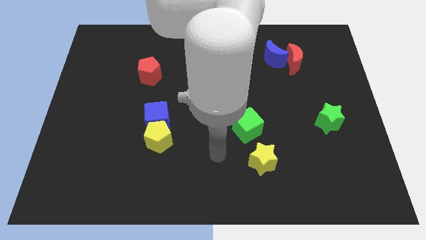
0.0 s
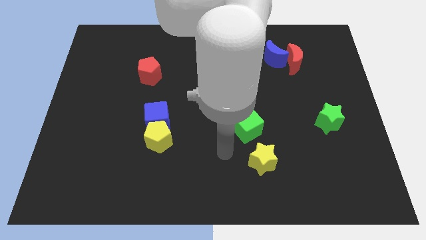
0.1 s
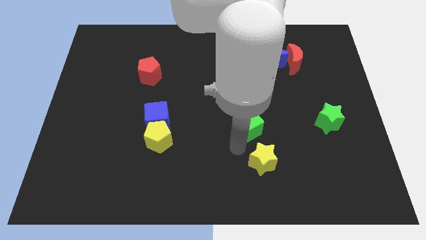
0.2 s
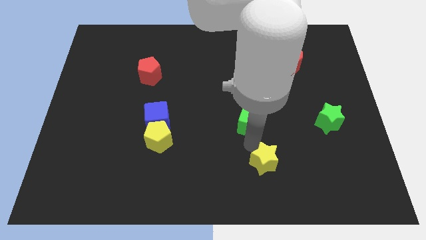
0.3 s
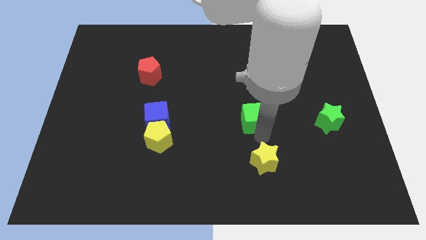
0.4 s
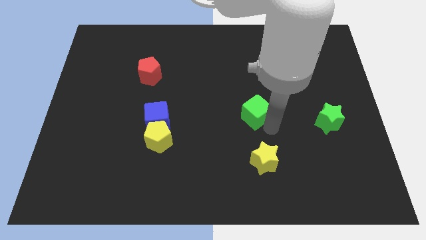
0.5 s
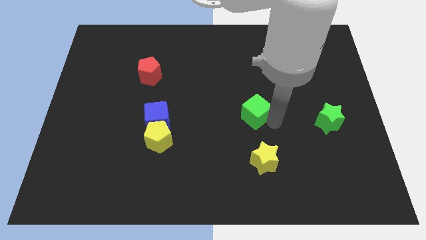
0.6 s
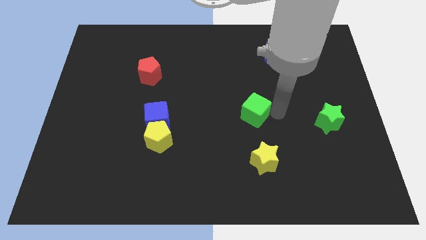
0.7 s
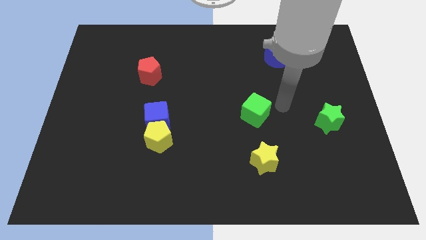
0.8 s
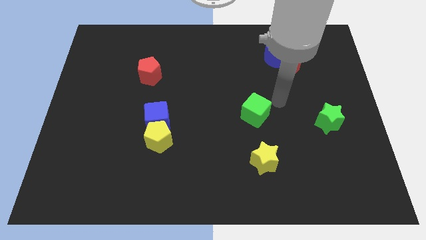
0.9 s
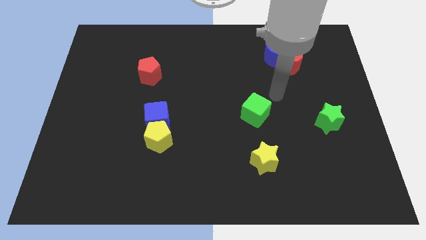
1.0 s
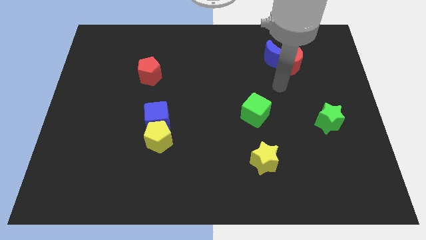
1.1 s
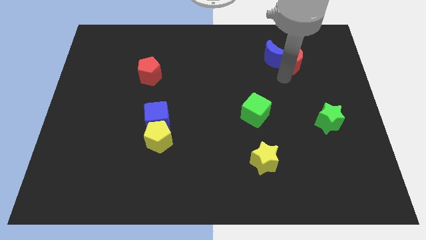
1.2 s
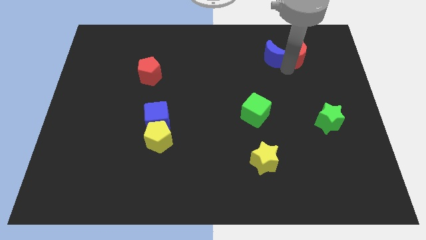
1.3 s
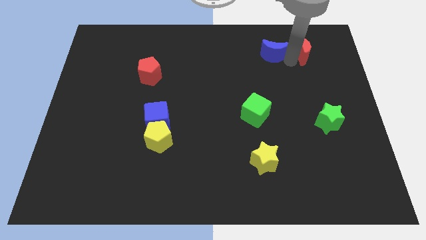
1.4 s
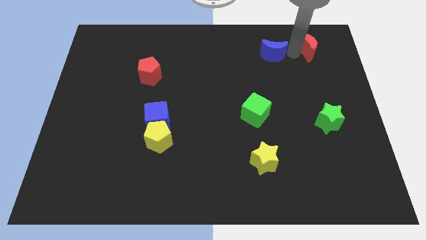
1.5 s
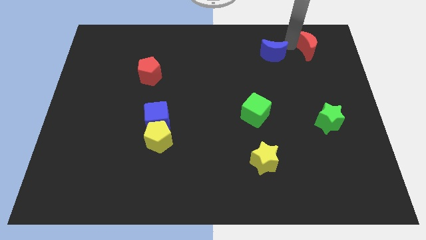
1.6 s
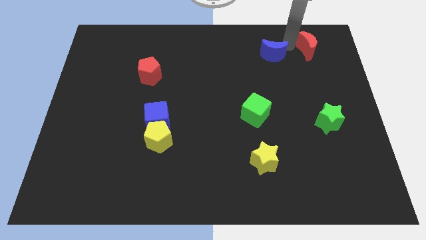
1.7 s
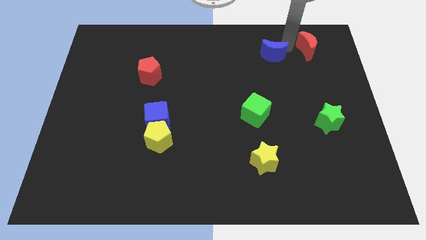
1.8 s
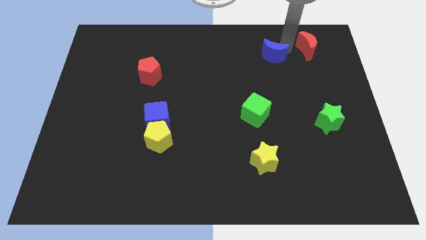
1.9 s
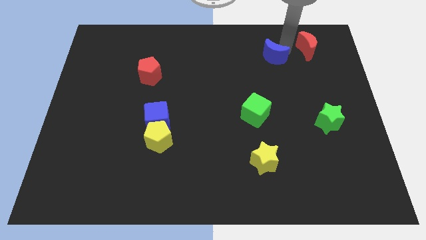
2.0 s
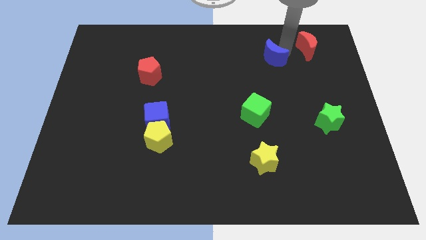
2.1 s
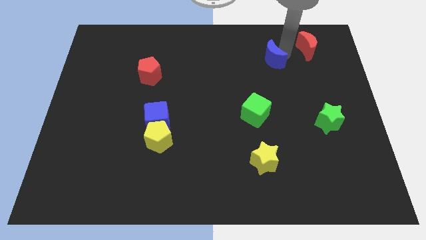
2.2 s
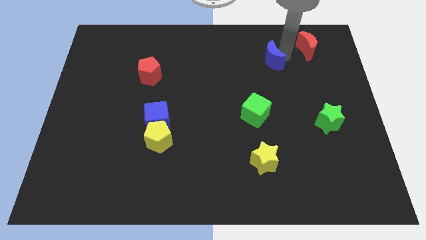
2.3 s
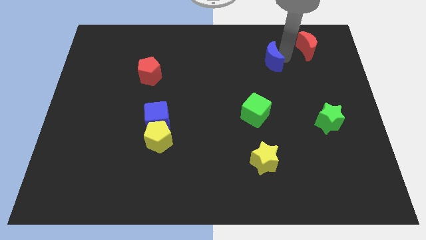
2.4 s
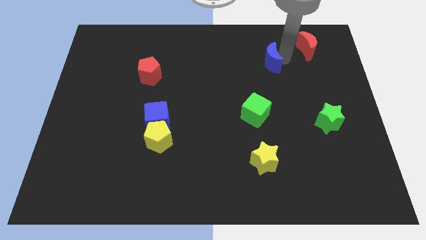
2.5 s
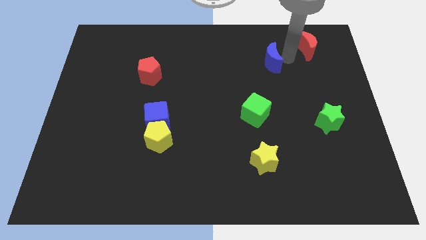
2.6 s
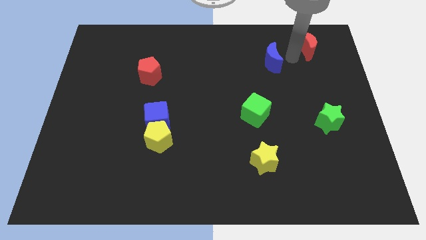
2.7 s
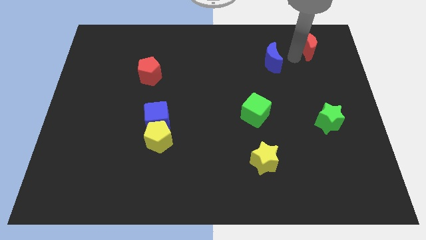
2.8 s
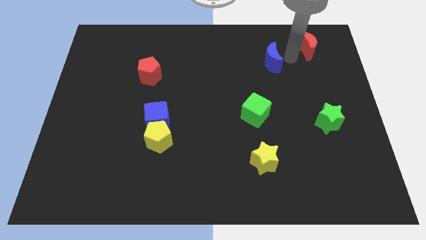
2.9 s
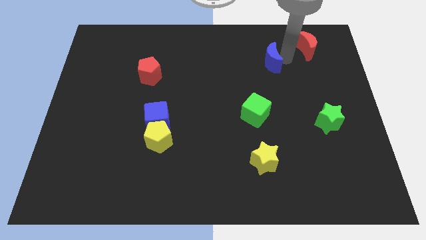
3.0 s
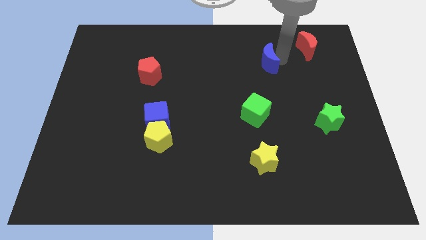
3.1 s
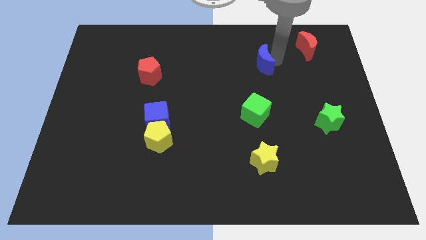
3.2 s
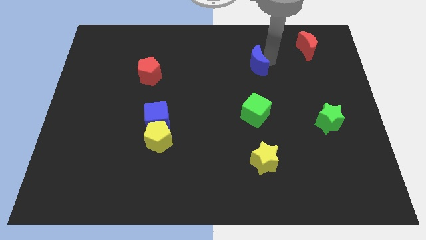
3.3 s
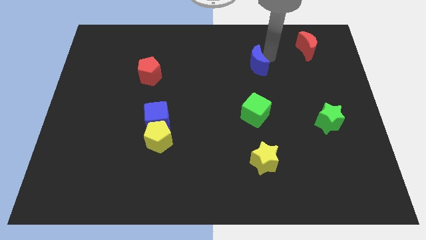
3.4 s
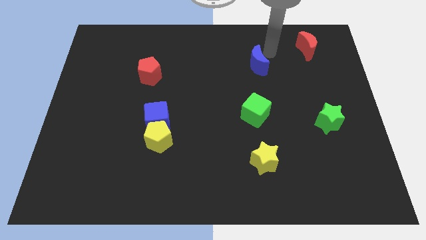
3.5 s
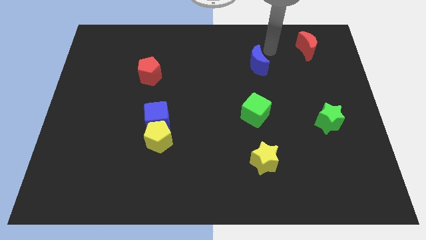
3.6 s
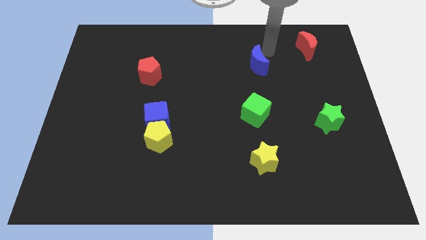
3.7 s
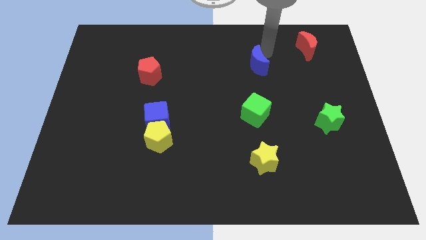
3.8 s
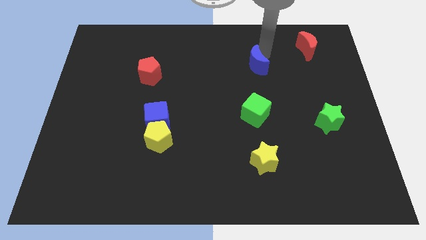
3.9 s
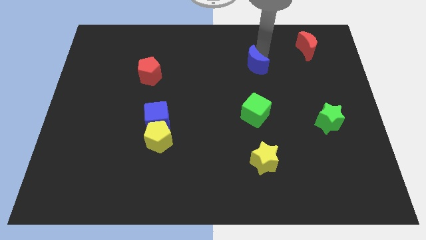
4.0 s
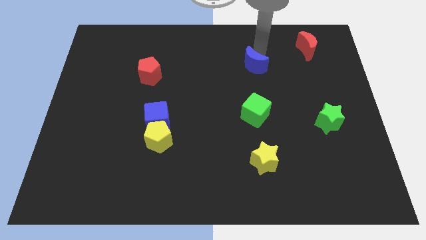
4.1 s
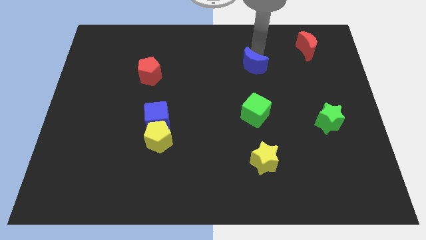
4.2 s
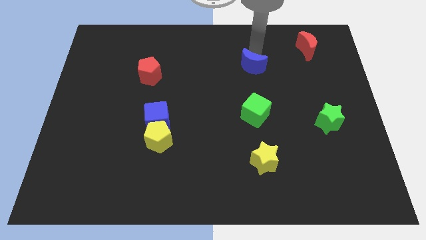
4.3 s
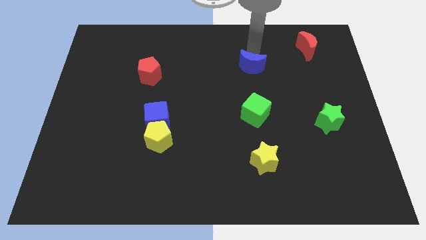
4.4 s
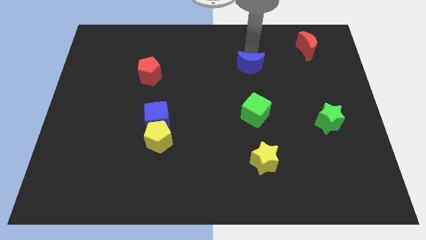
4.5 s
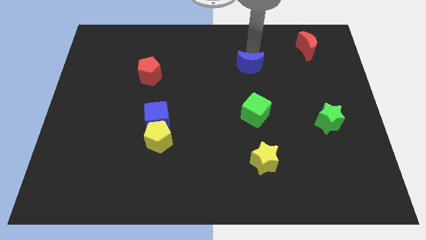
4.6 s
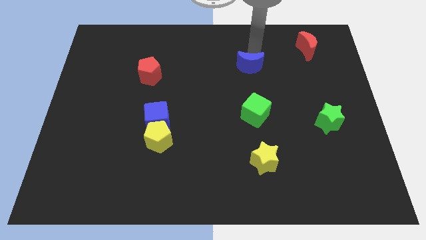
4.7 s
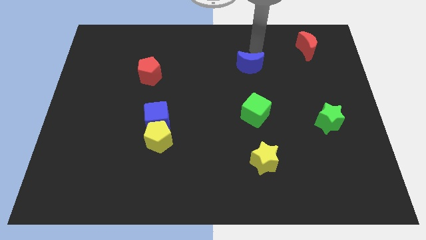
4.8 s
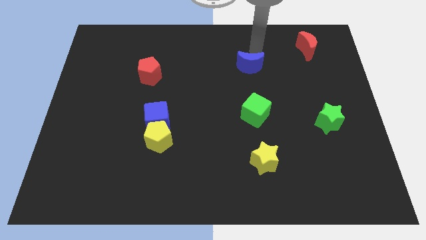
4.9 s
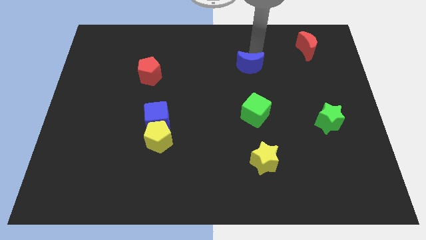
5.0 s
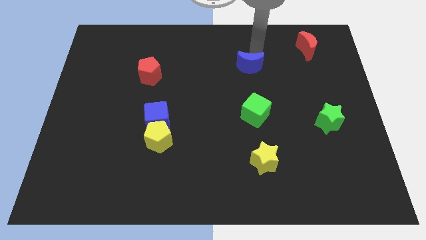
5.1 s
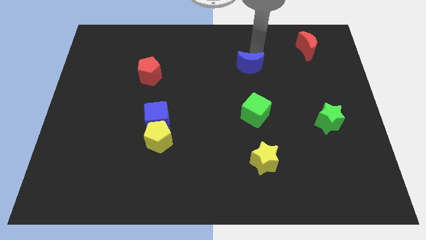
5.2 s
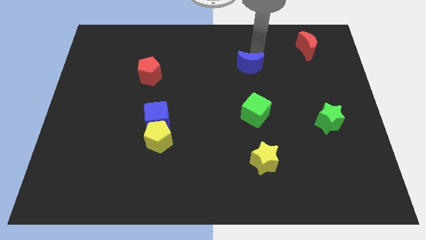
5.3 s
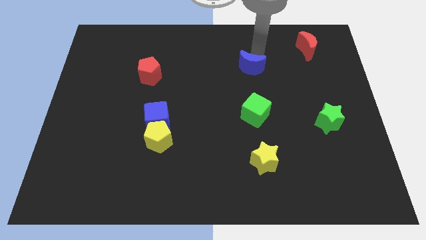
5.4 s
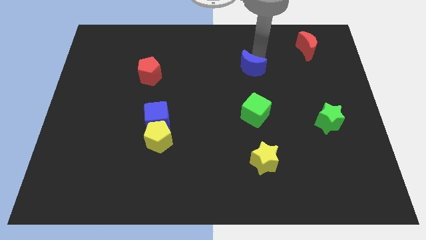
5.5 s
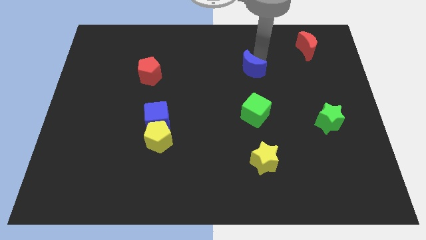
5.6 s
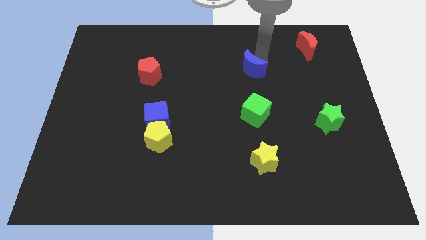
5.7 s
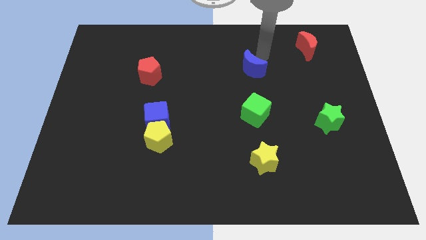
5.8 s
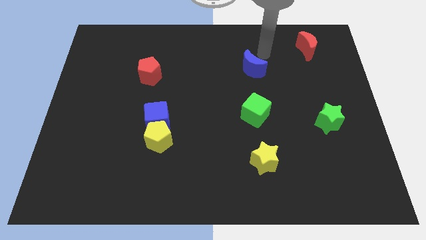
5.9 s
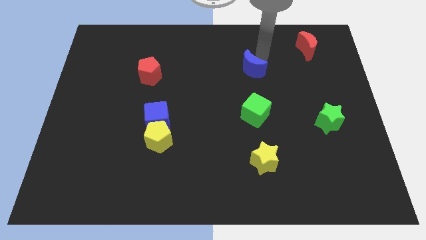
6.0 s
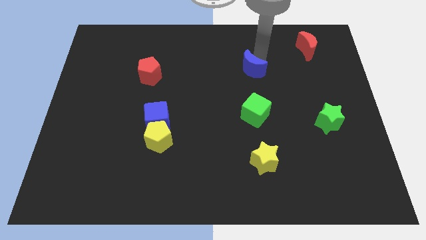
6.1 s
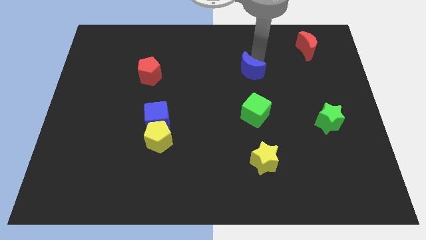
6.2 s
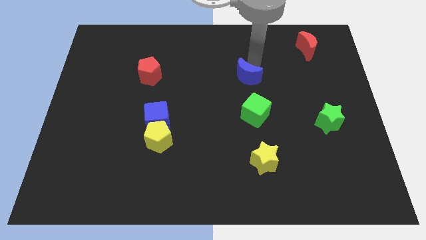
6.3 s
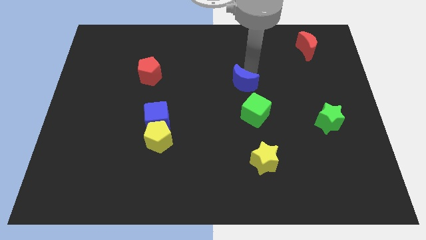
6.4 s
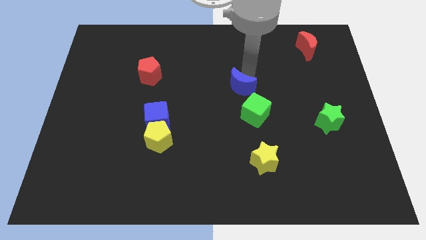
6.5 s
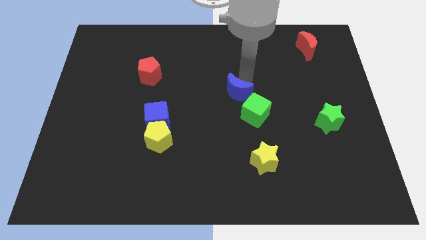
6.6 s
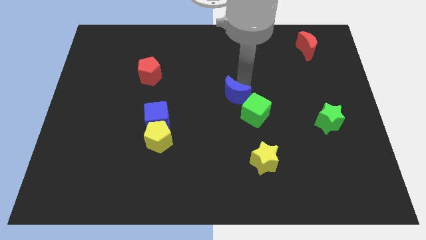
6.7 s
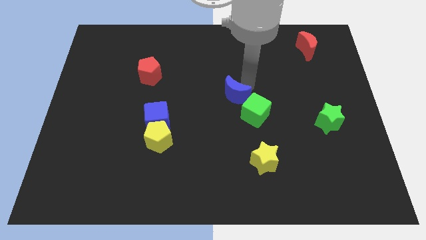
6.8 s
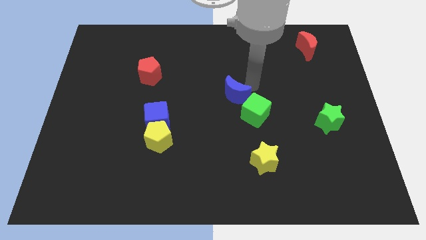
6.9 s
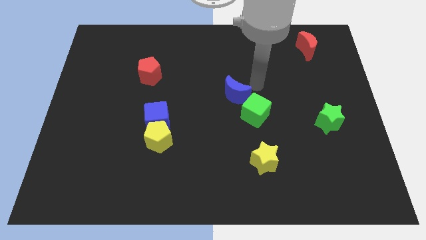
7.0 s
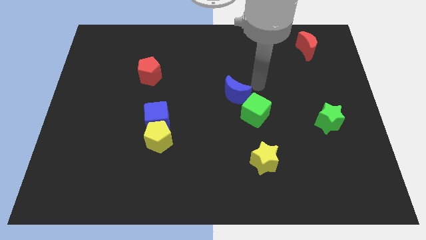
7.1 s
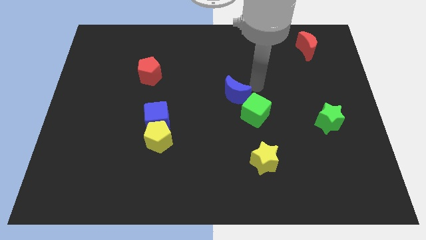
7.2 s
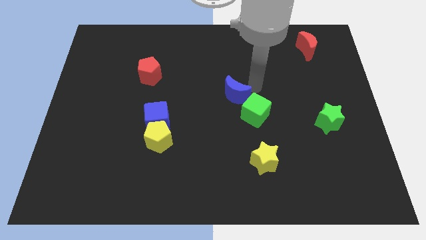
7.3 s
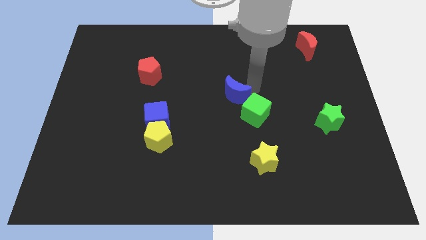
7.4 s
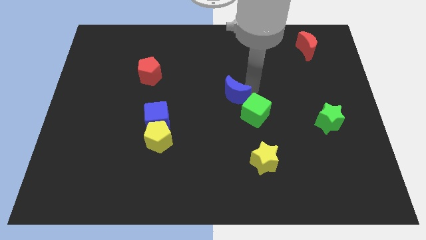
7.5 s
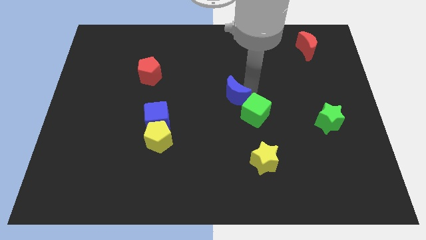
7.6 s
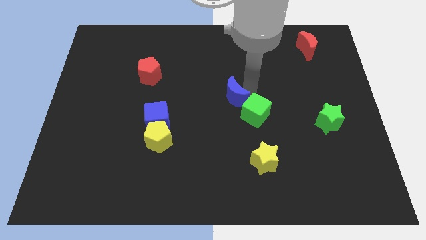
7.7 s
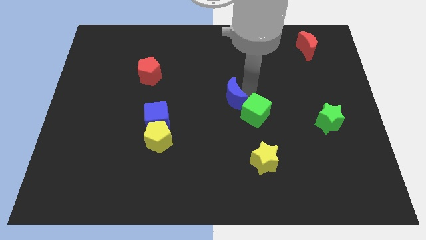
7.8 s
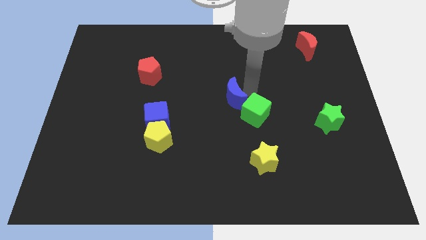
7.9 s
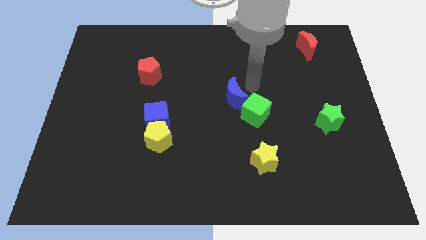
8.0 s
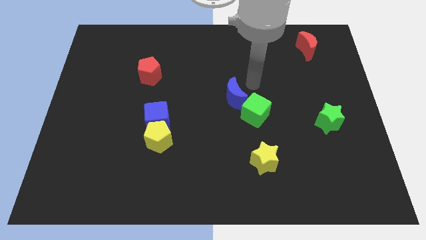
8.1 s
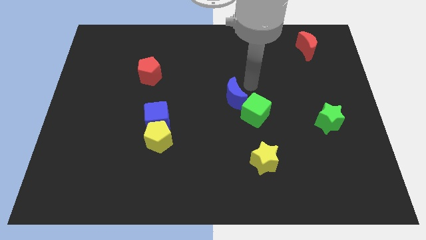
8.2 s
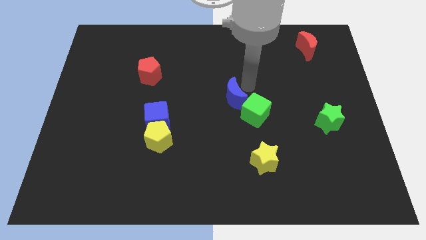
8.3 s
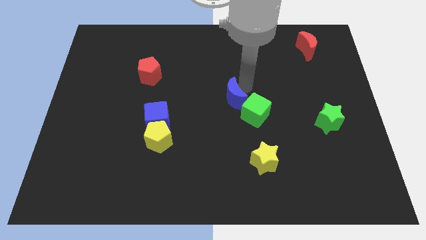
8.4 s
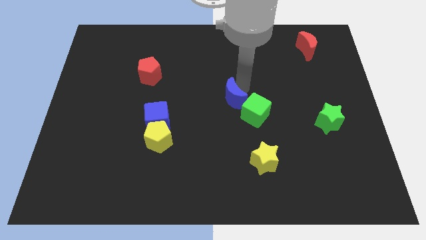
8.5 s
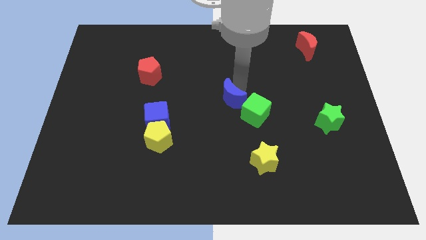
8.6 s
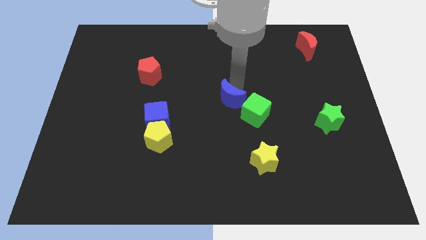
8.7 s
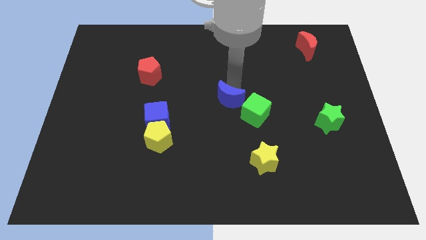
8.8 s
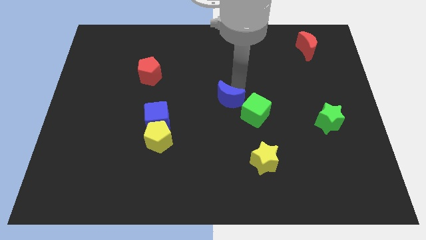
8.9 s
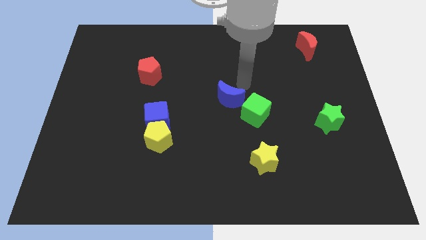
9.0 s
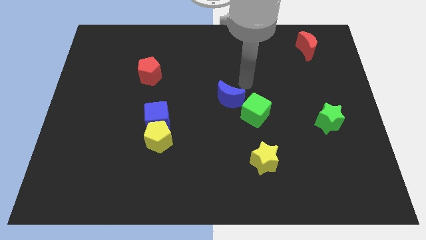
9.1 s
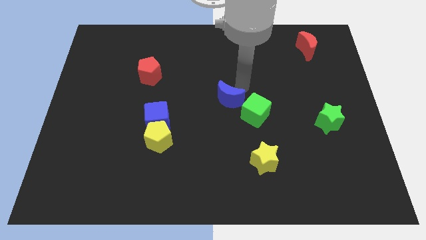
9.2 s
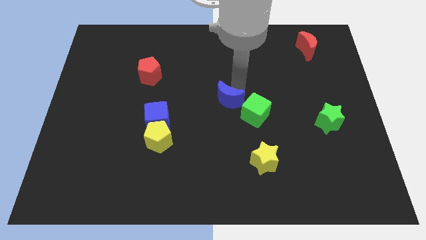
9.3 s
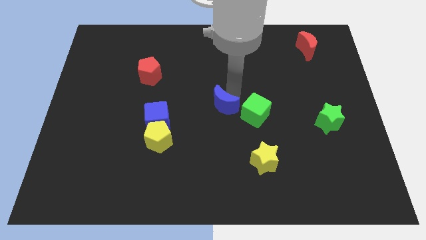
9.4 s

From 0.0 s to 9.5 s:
push the blue moon downwards and then left
